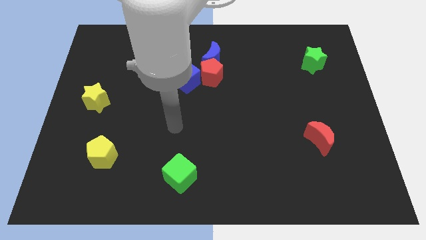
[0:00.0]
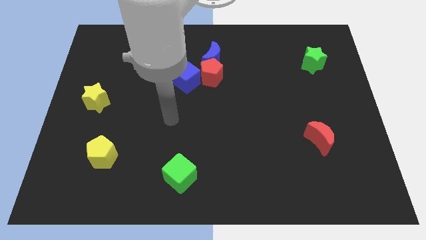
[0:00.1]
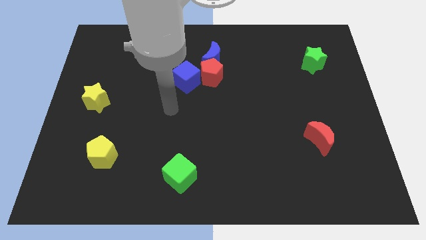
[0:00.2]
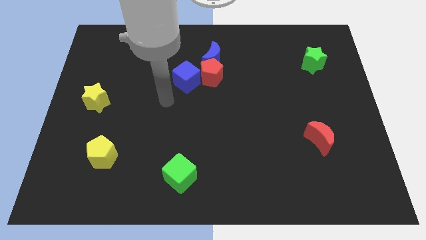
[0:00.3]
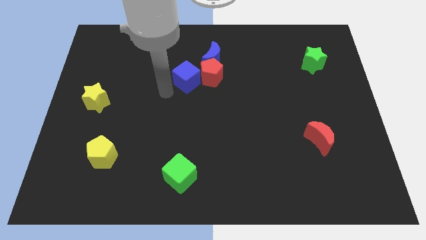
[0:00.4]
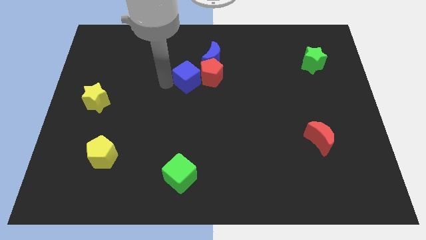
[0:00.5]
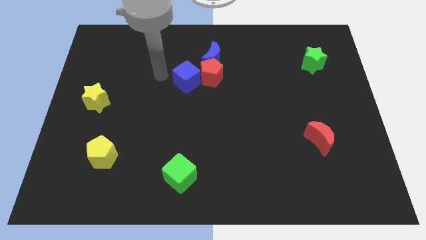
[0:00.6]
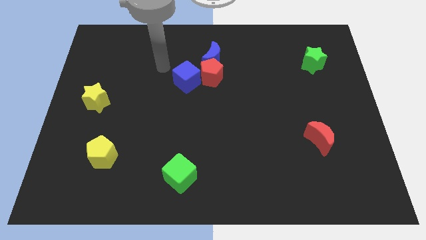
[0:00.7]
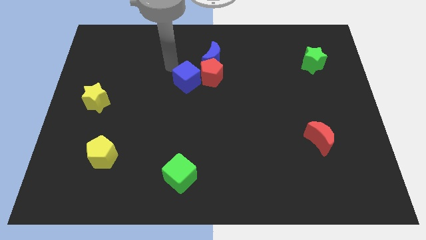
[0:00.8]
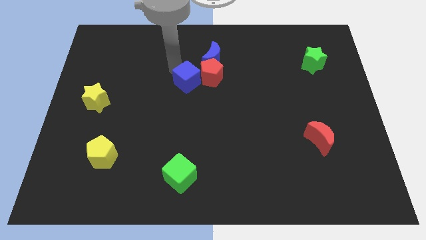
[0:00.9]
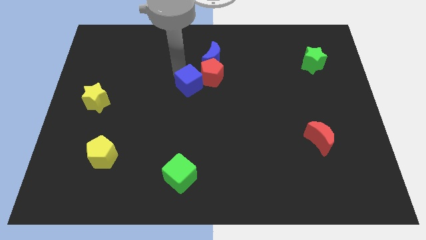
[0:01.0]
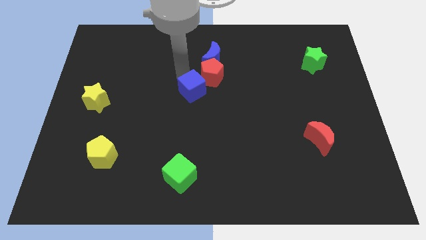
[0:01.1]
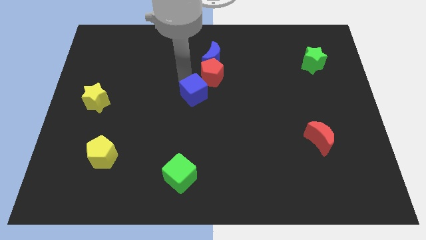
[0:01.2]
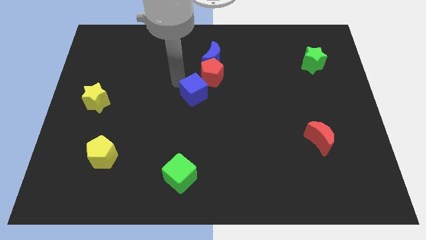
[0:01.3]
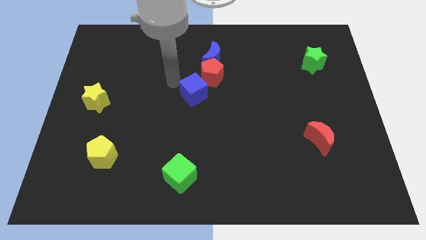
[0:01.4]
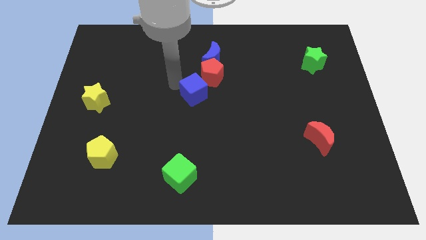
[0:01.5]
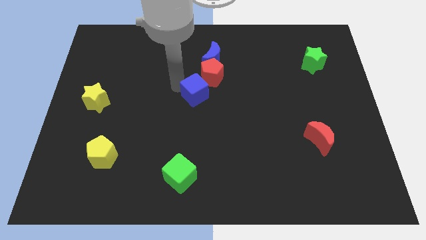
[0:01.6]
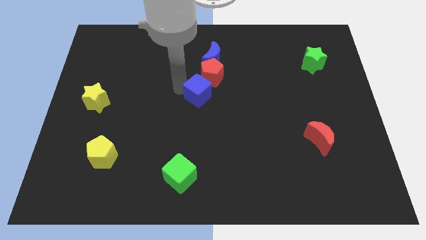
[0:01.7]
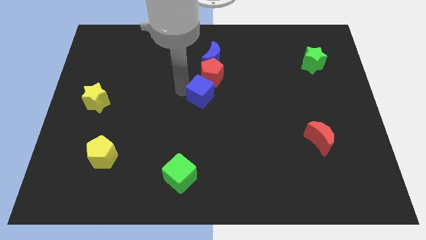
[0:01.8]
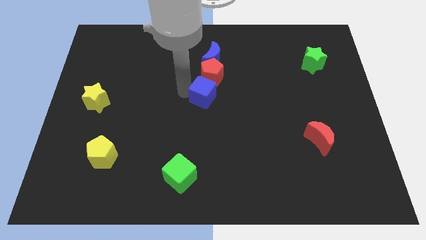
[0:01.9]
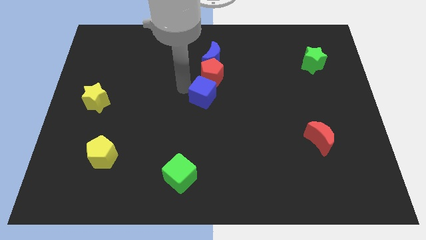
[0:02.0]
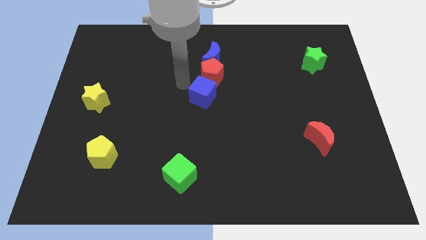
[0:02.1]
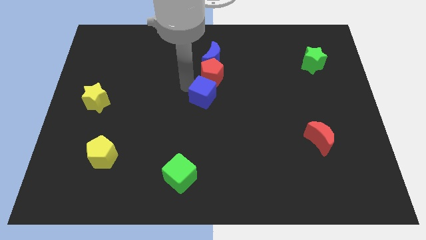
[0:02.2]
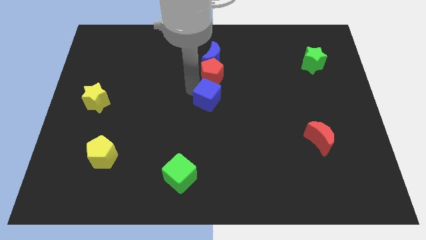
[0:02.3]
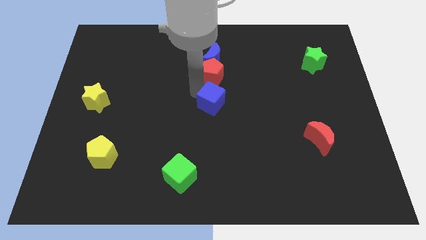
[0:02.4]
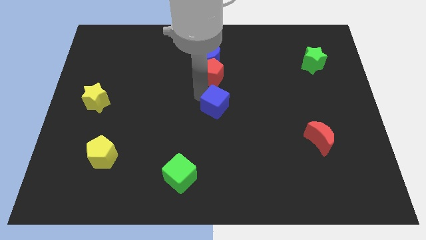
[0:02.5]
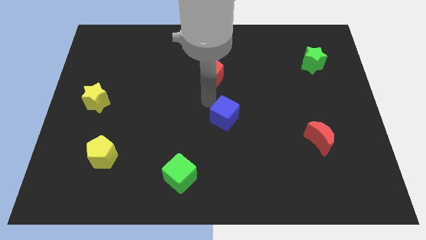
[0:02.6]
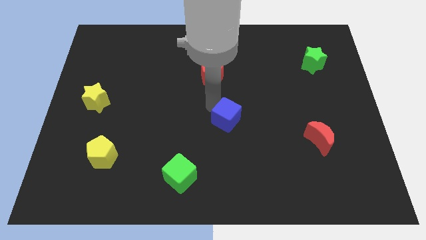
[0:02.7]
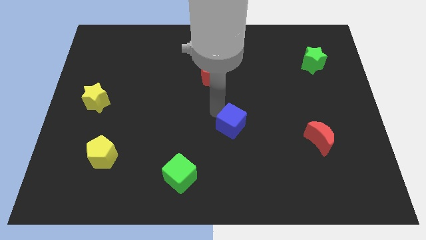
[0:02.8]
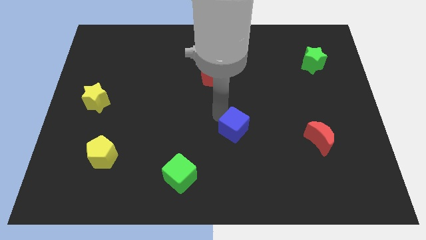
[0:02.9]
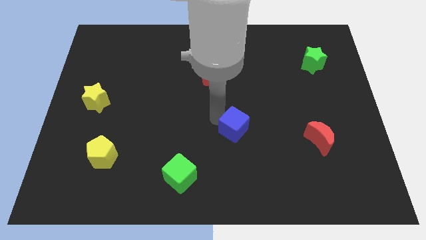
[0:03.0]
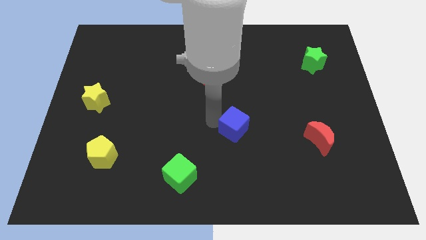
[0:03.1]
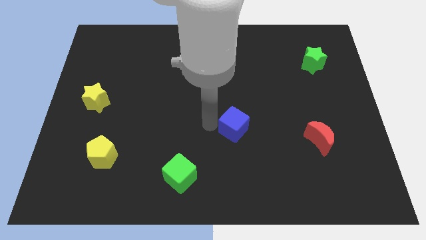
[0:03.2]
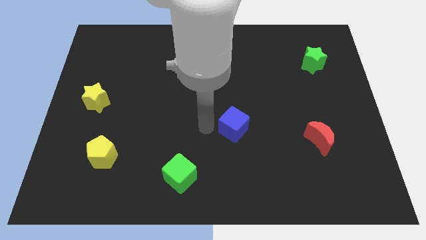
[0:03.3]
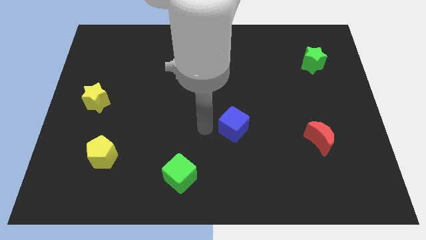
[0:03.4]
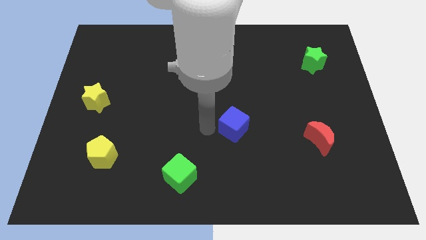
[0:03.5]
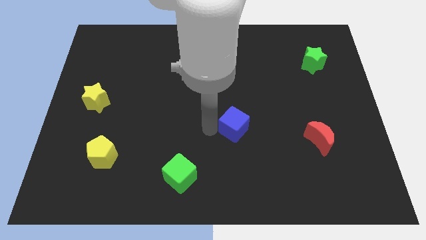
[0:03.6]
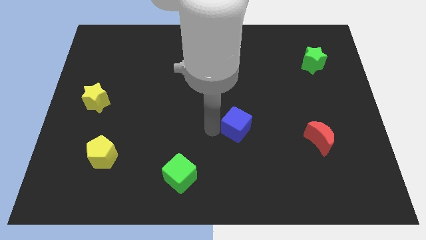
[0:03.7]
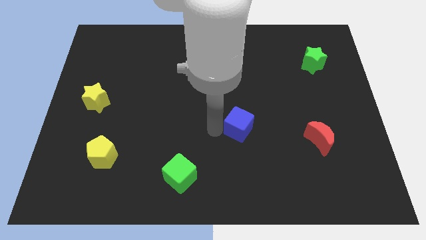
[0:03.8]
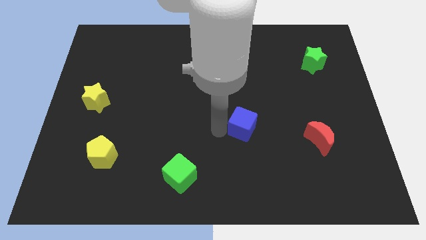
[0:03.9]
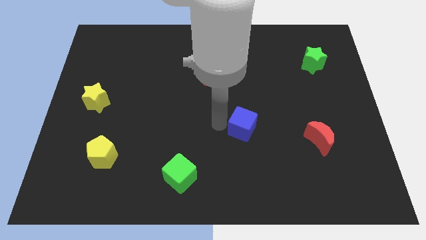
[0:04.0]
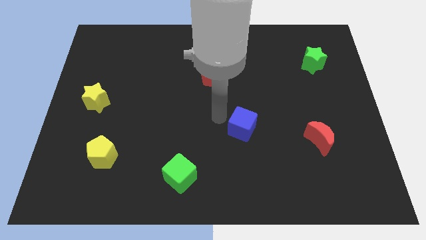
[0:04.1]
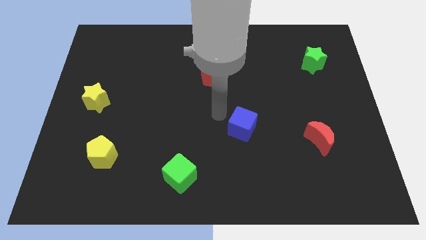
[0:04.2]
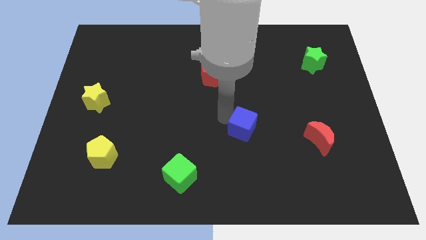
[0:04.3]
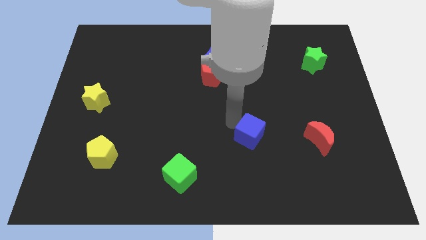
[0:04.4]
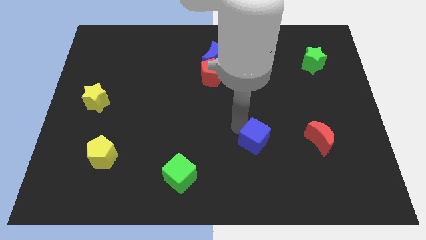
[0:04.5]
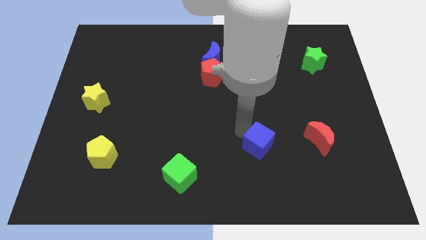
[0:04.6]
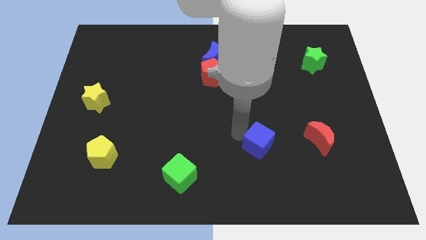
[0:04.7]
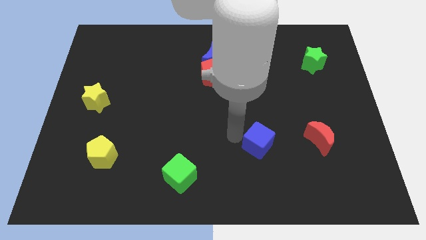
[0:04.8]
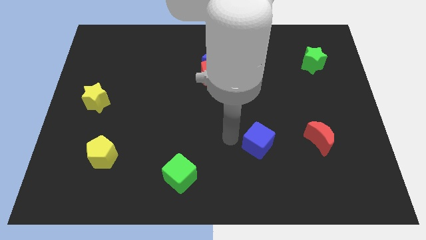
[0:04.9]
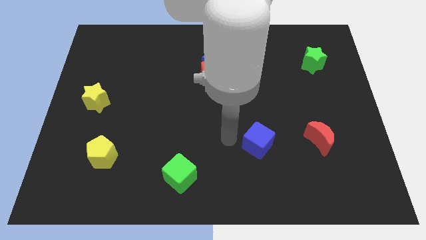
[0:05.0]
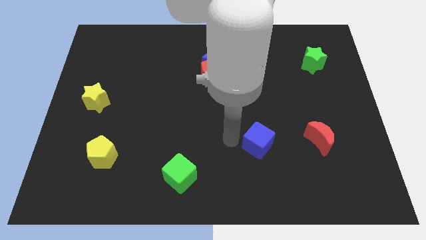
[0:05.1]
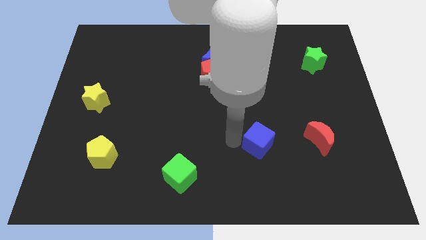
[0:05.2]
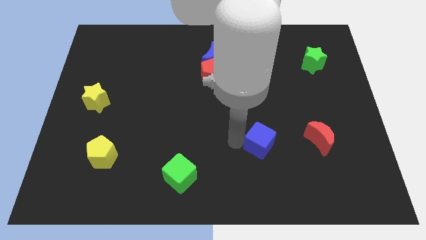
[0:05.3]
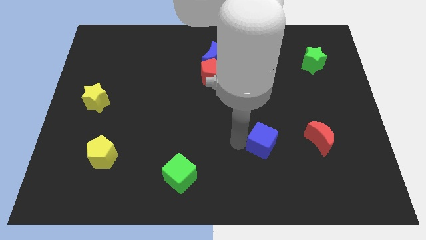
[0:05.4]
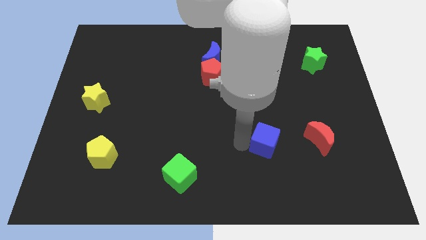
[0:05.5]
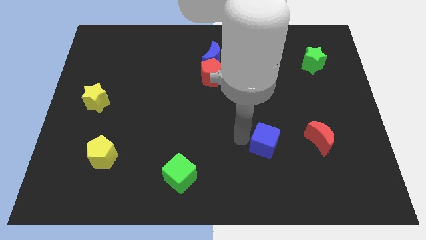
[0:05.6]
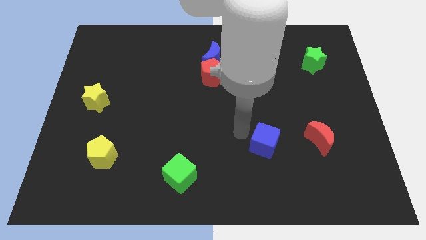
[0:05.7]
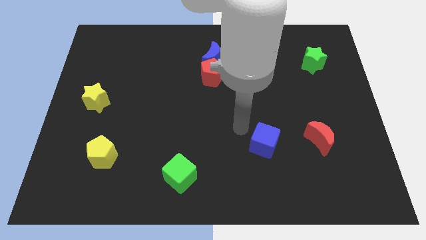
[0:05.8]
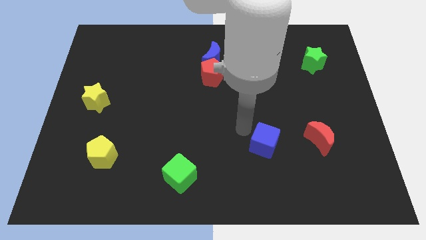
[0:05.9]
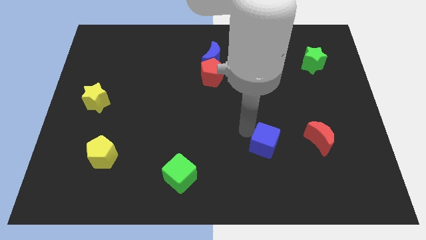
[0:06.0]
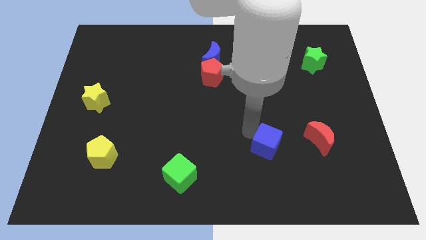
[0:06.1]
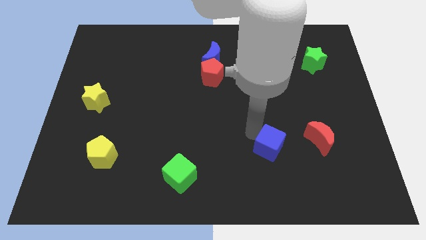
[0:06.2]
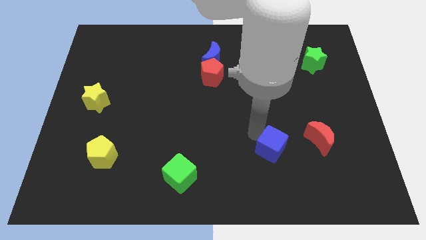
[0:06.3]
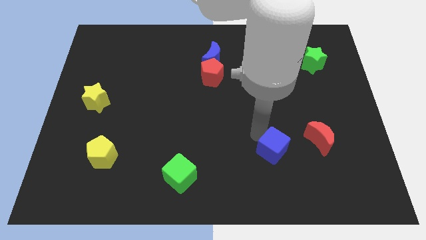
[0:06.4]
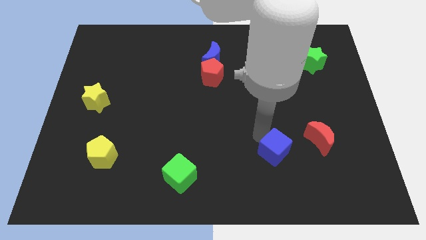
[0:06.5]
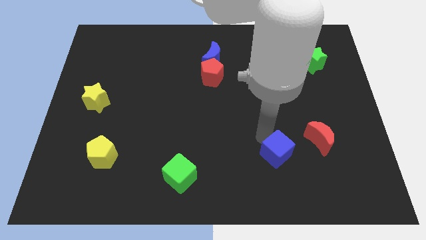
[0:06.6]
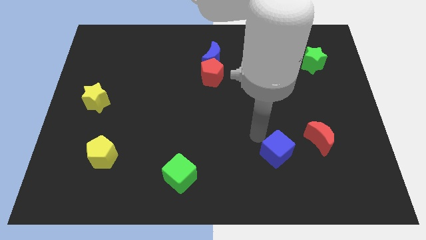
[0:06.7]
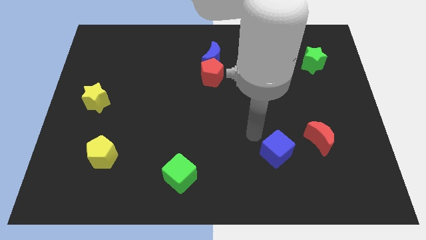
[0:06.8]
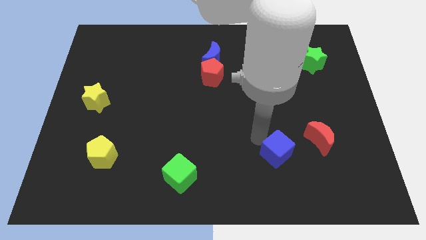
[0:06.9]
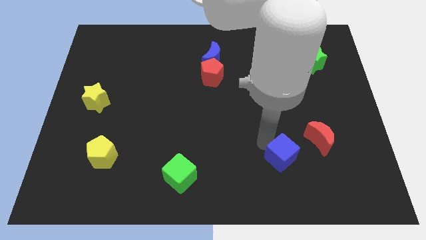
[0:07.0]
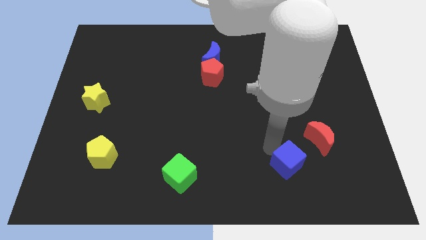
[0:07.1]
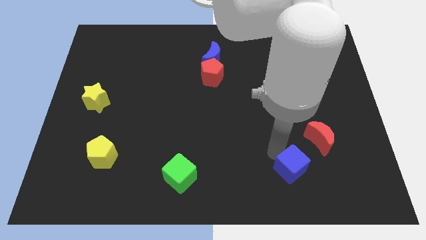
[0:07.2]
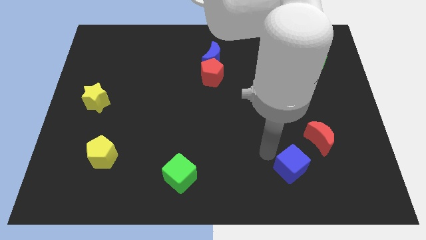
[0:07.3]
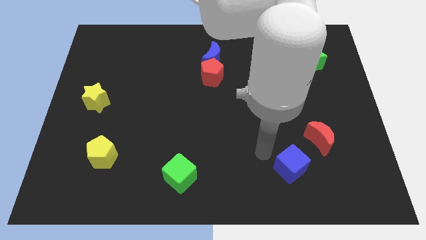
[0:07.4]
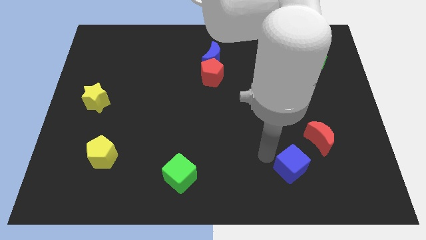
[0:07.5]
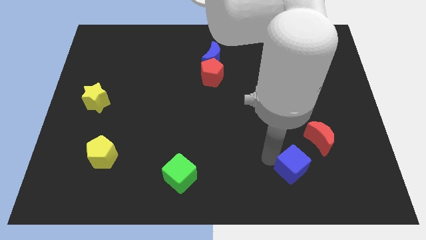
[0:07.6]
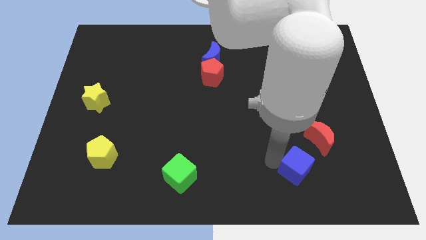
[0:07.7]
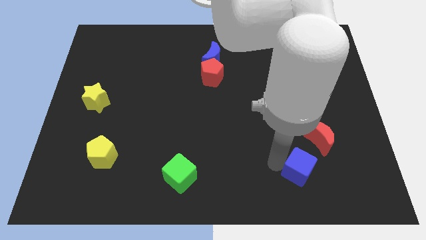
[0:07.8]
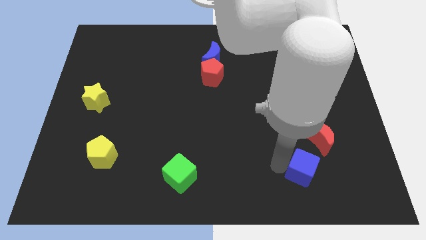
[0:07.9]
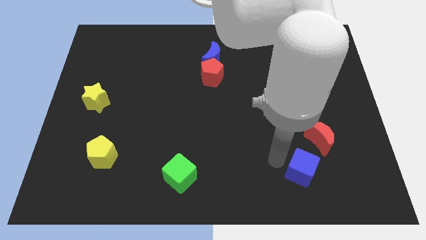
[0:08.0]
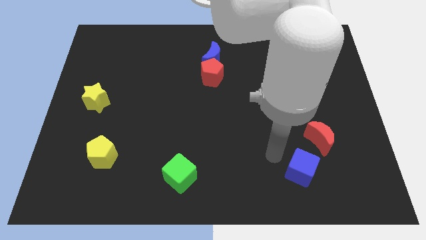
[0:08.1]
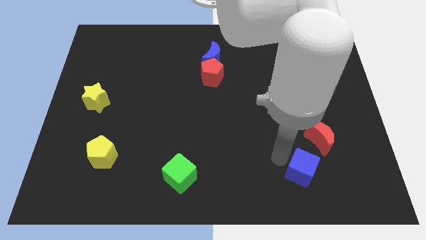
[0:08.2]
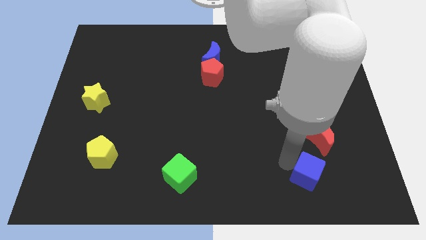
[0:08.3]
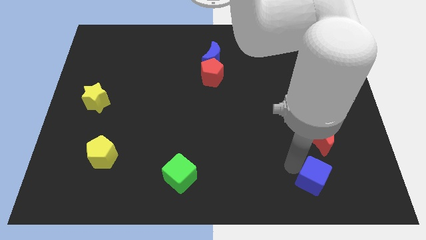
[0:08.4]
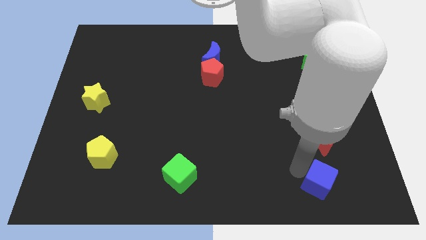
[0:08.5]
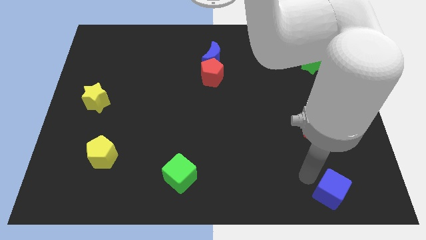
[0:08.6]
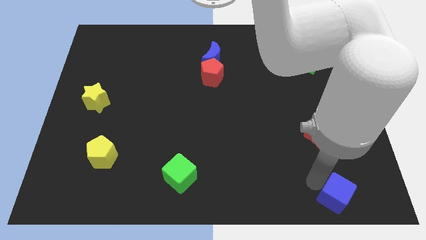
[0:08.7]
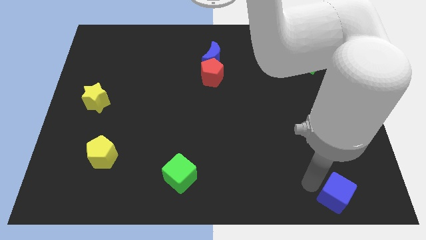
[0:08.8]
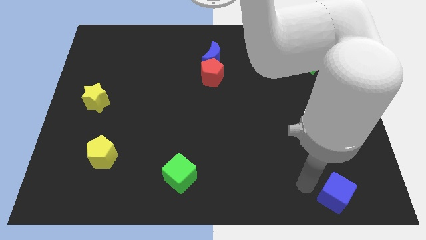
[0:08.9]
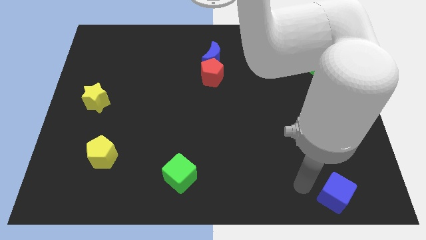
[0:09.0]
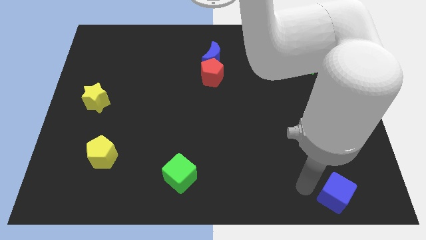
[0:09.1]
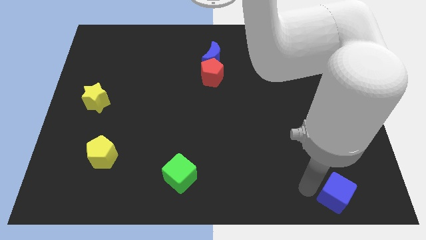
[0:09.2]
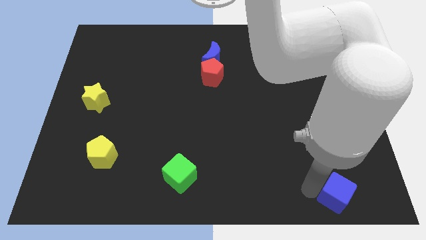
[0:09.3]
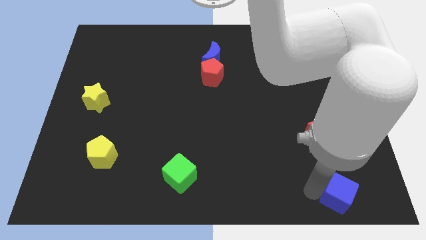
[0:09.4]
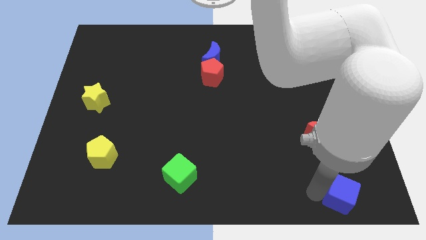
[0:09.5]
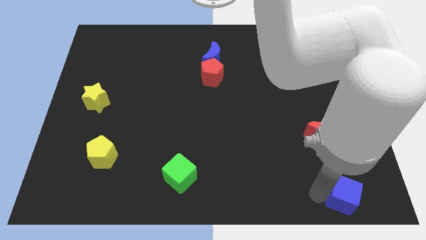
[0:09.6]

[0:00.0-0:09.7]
push the blue cube to the bottom right corner
